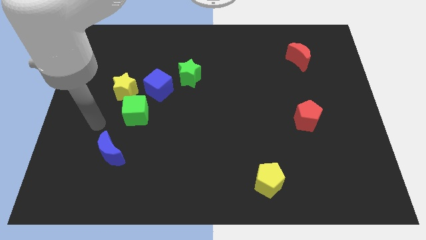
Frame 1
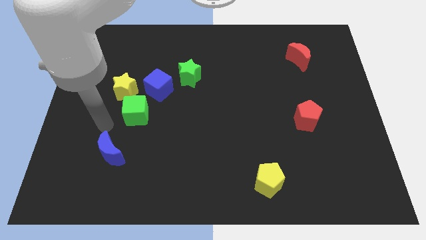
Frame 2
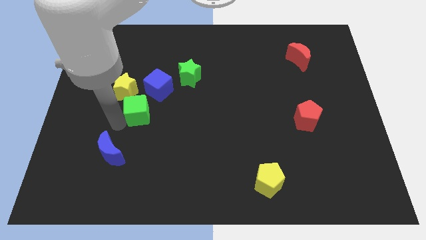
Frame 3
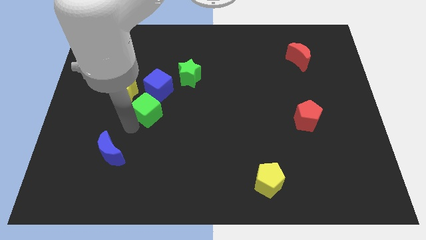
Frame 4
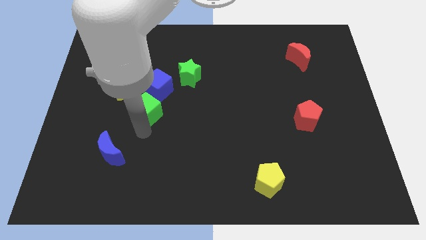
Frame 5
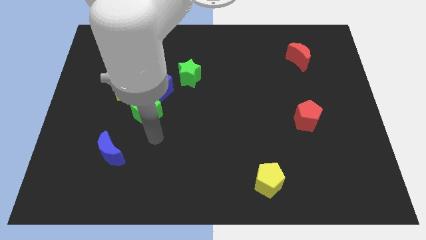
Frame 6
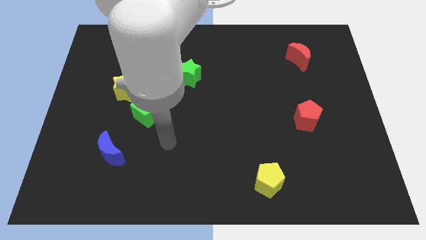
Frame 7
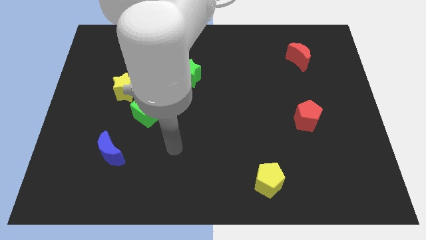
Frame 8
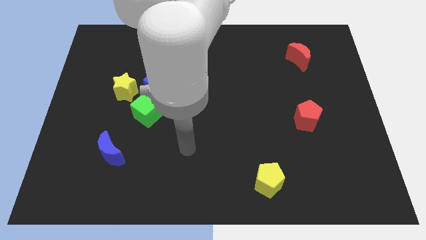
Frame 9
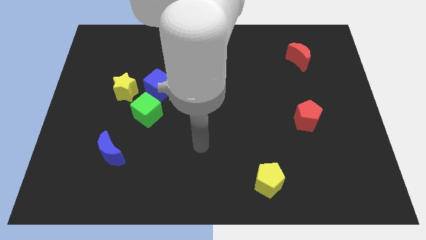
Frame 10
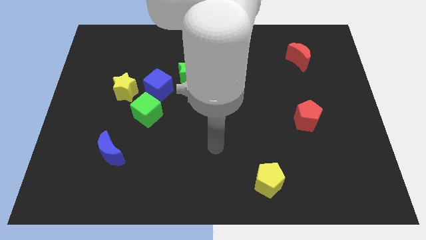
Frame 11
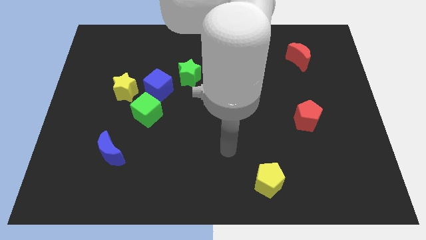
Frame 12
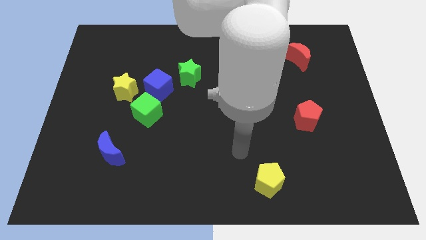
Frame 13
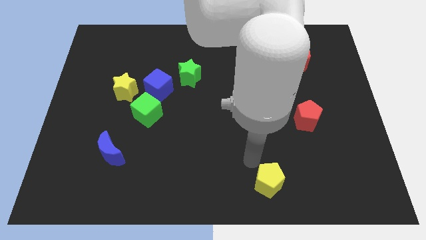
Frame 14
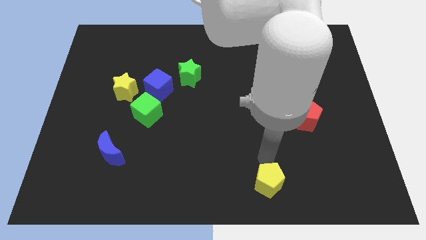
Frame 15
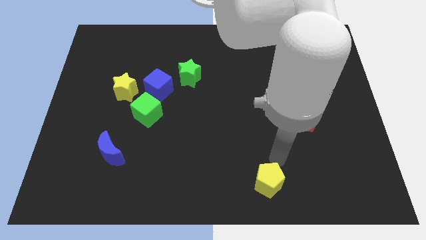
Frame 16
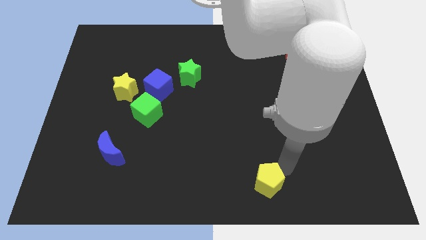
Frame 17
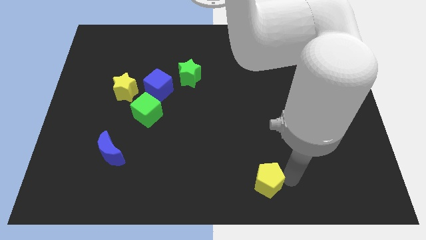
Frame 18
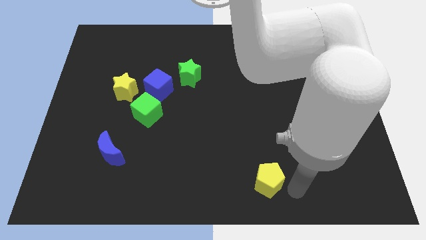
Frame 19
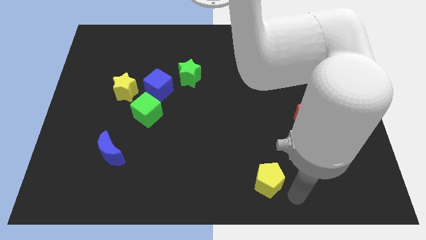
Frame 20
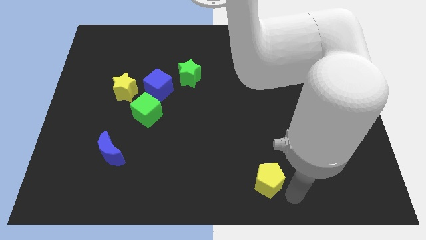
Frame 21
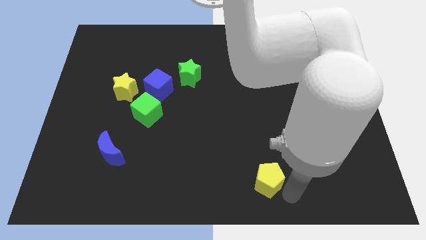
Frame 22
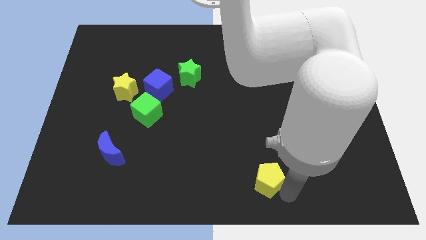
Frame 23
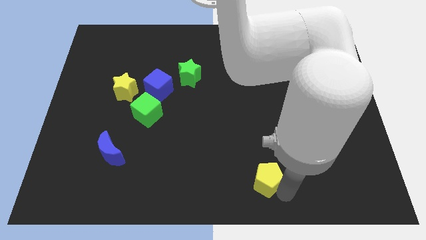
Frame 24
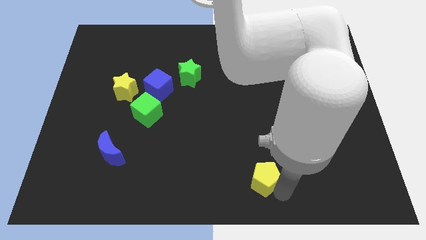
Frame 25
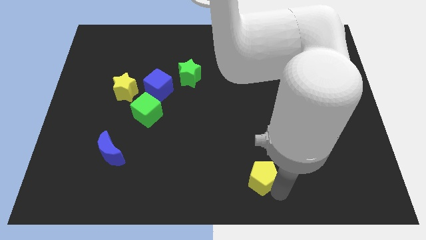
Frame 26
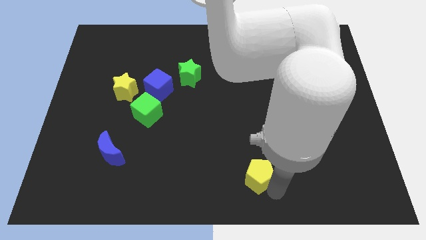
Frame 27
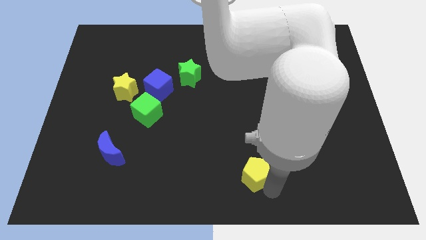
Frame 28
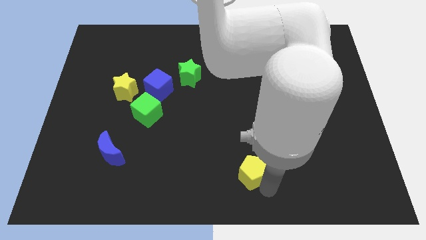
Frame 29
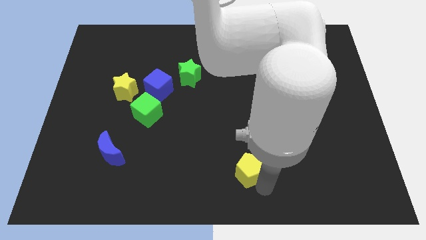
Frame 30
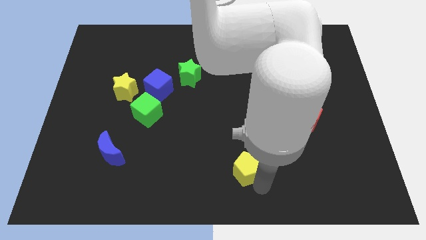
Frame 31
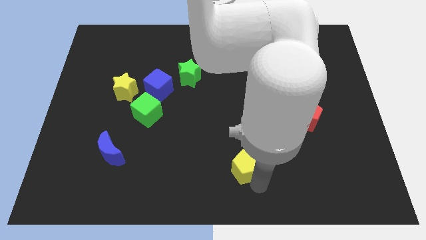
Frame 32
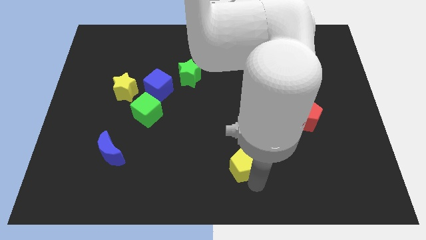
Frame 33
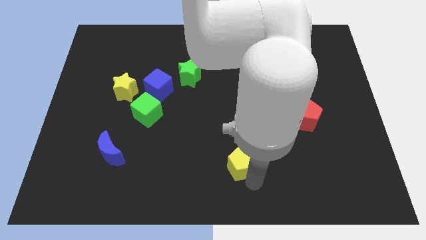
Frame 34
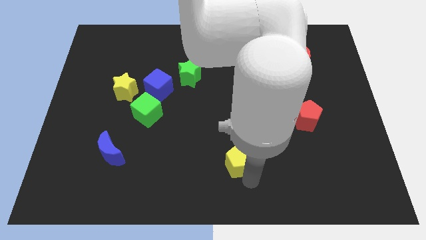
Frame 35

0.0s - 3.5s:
push the yellow pentagon a little up and then to the left

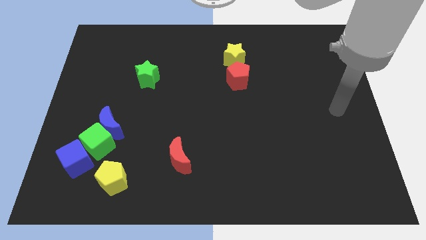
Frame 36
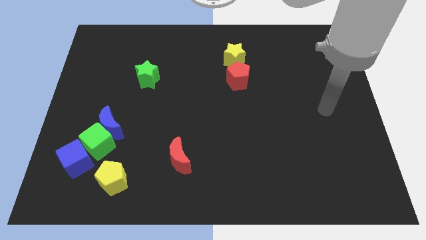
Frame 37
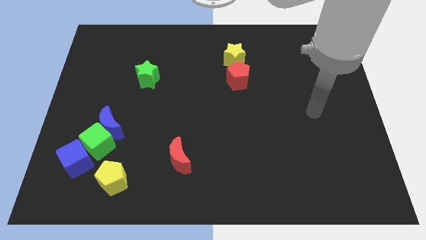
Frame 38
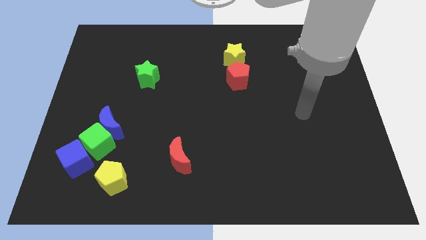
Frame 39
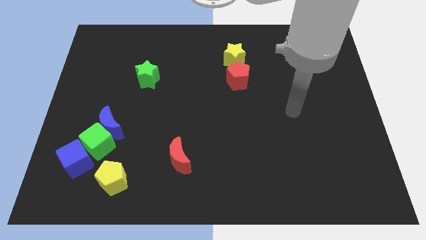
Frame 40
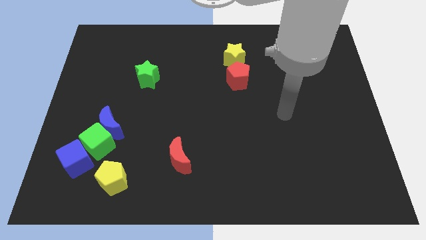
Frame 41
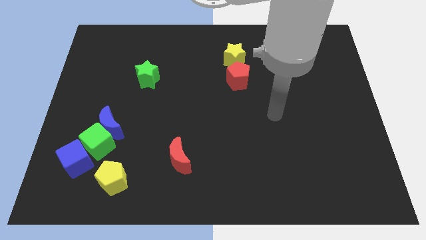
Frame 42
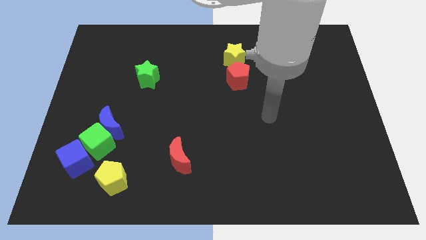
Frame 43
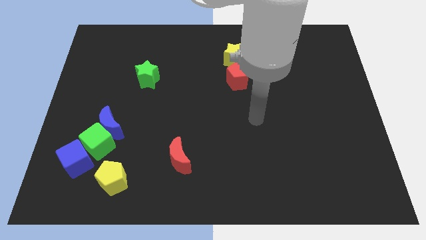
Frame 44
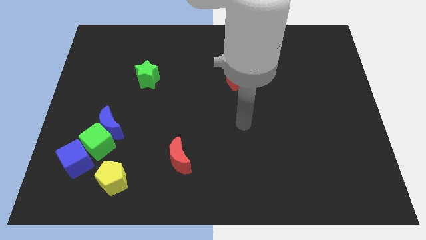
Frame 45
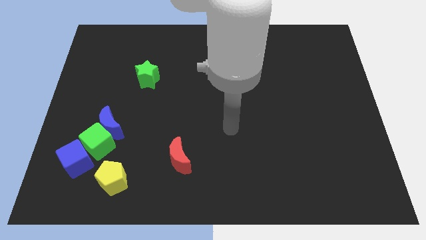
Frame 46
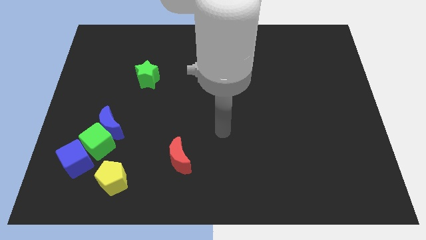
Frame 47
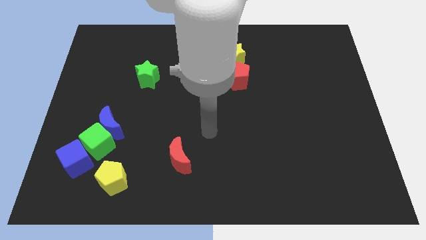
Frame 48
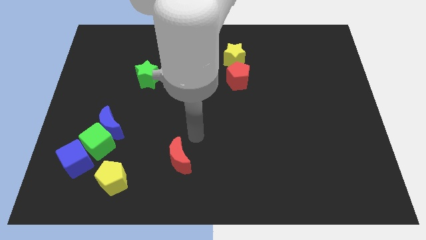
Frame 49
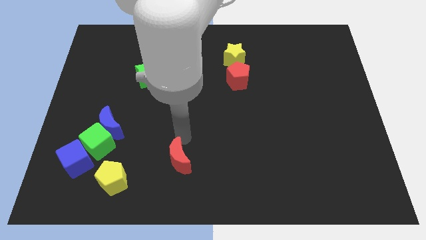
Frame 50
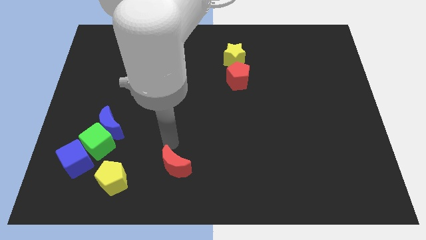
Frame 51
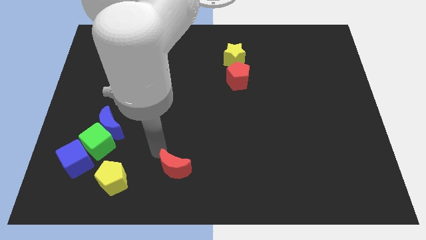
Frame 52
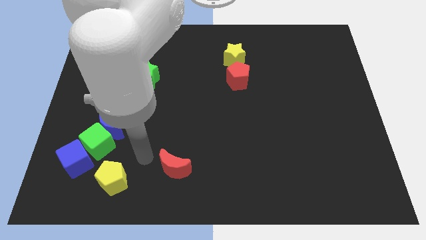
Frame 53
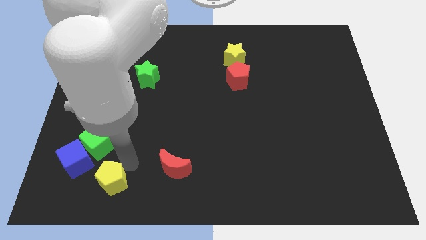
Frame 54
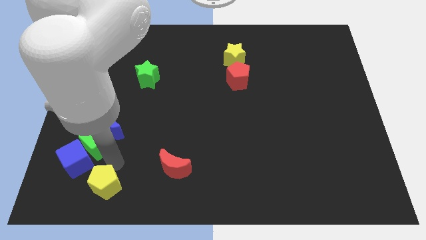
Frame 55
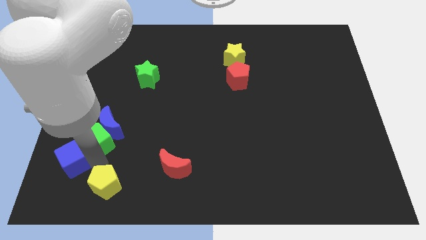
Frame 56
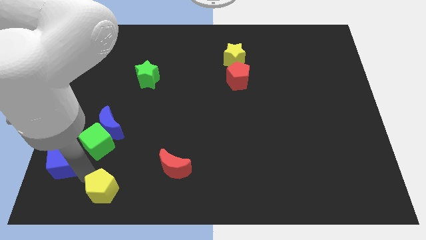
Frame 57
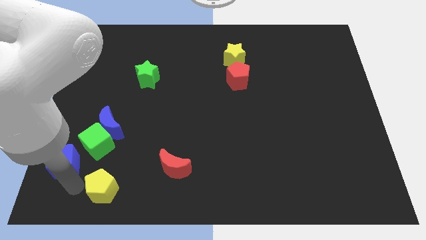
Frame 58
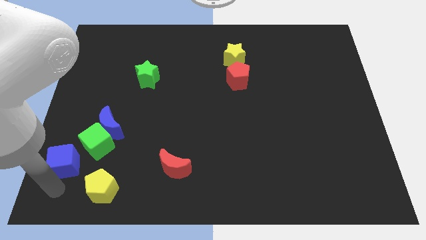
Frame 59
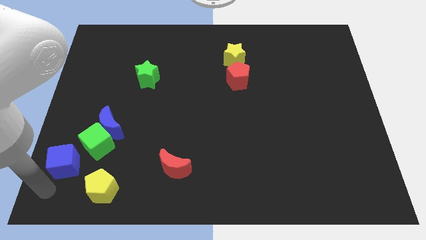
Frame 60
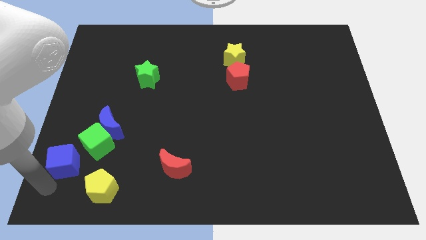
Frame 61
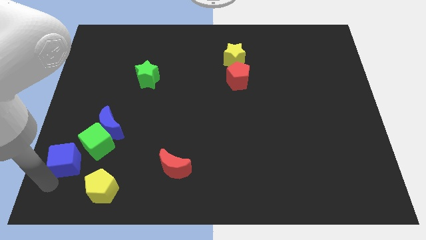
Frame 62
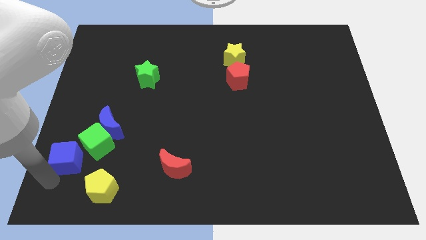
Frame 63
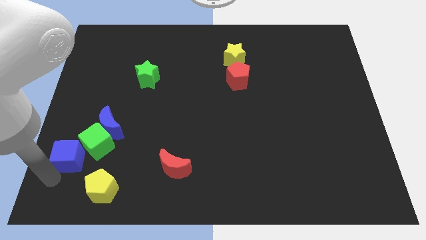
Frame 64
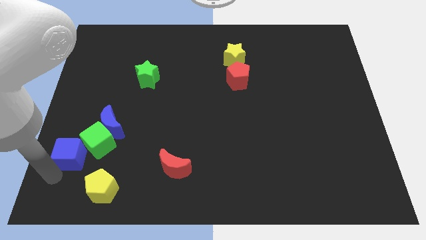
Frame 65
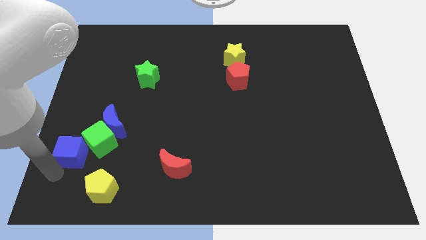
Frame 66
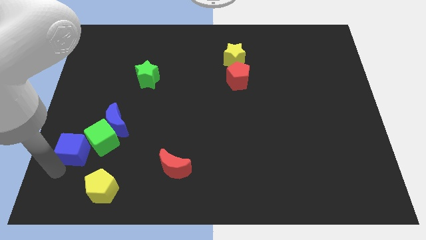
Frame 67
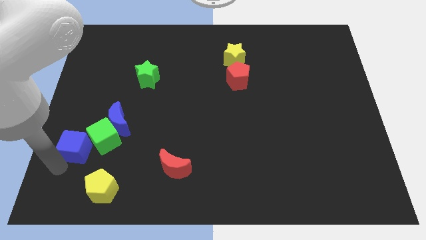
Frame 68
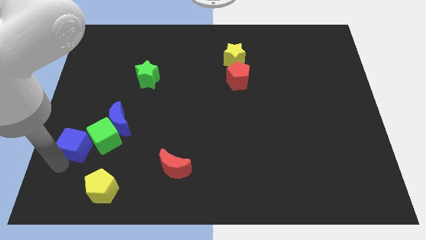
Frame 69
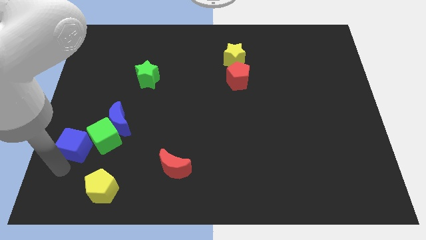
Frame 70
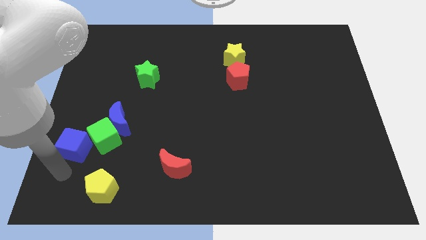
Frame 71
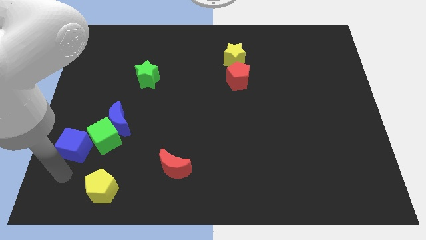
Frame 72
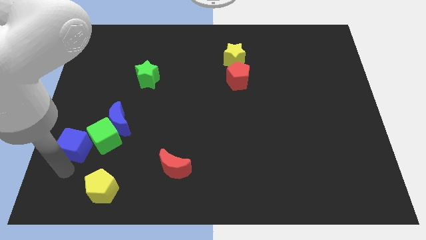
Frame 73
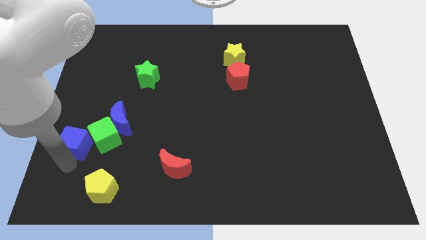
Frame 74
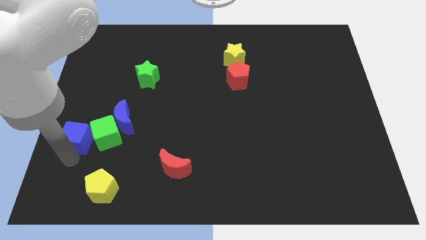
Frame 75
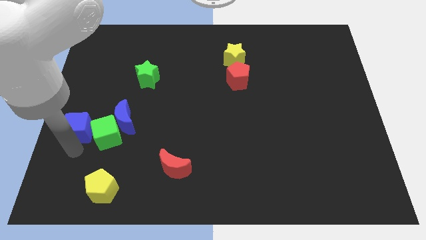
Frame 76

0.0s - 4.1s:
slide the blue cube upwards a little bit

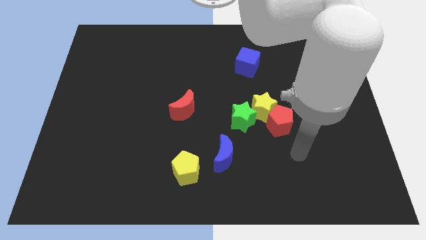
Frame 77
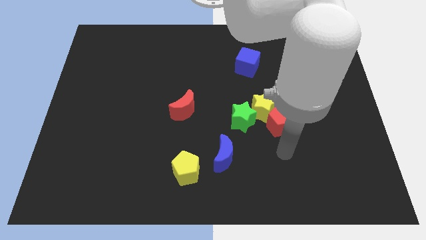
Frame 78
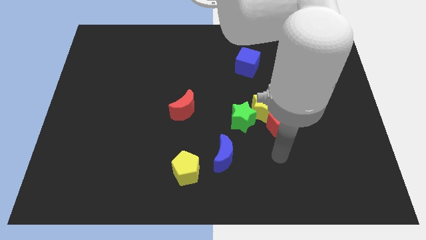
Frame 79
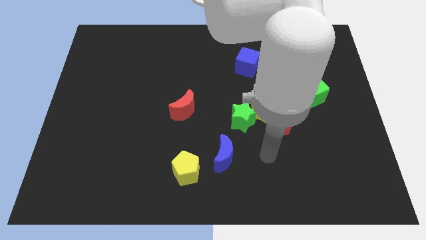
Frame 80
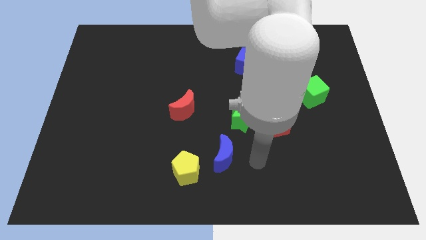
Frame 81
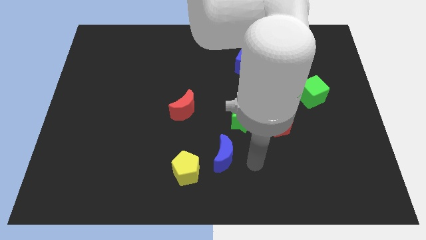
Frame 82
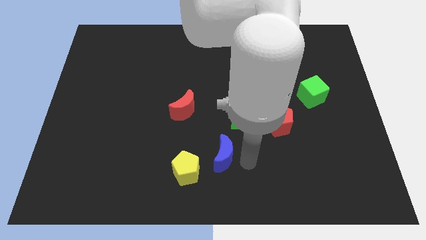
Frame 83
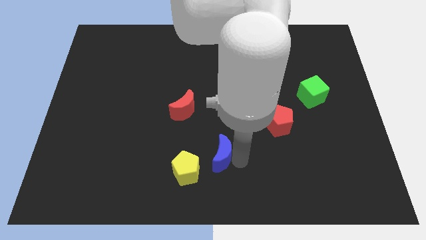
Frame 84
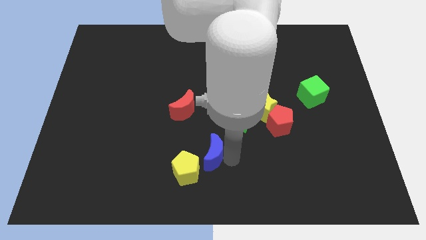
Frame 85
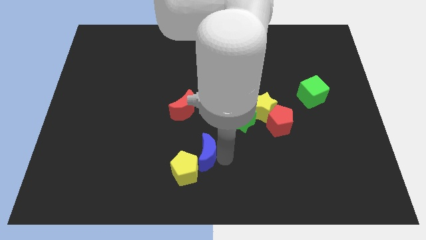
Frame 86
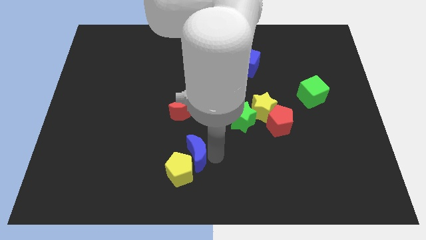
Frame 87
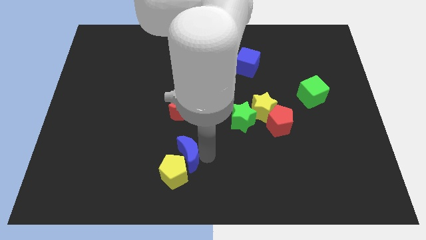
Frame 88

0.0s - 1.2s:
slightly slide the blue moon to the left
